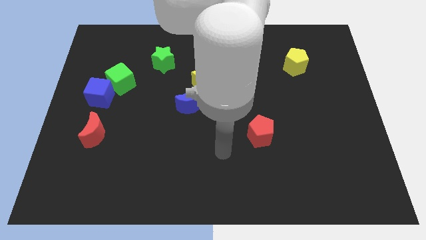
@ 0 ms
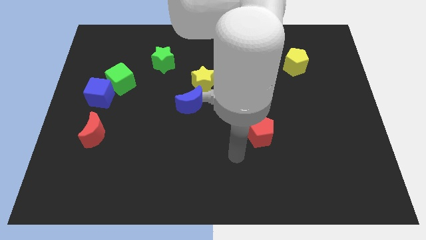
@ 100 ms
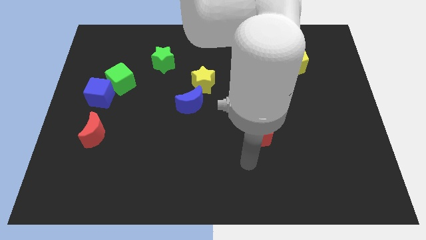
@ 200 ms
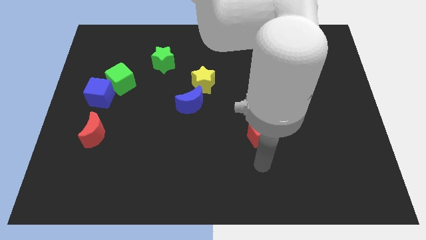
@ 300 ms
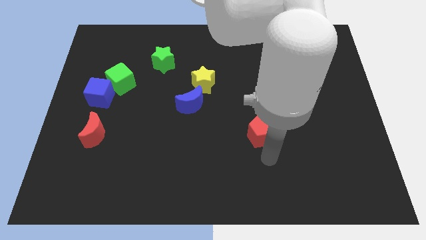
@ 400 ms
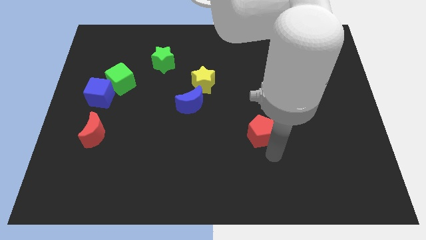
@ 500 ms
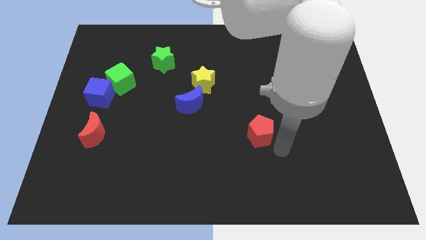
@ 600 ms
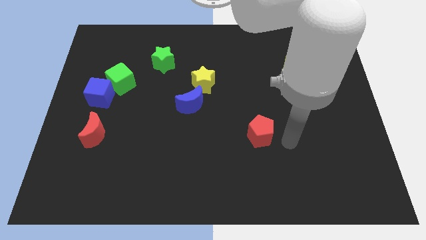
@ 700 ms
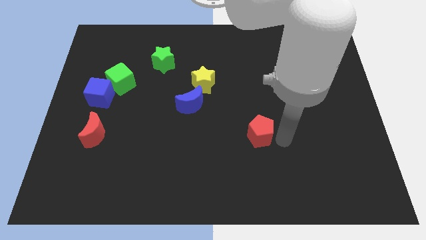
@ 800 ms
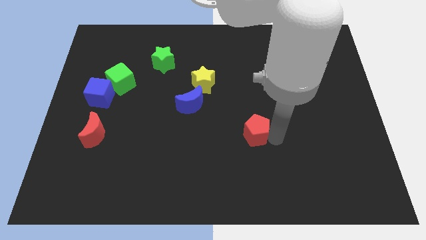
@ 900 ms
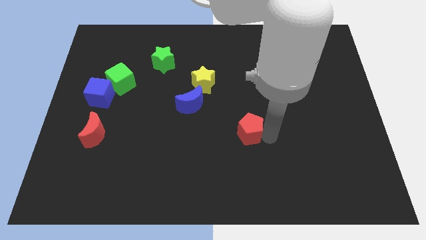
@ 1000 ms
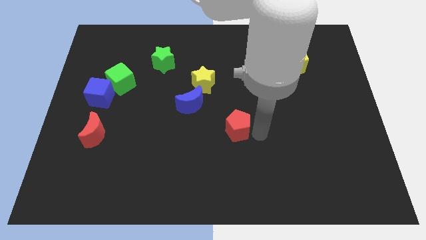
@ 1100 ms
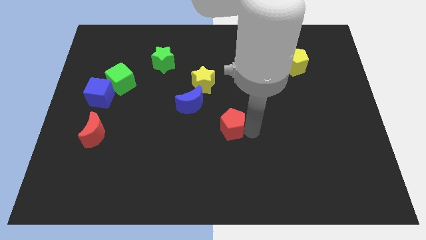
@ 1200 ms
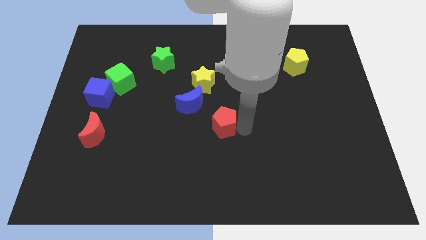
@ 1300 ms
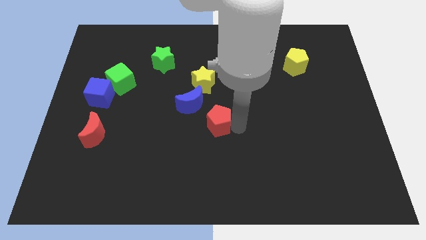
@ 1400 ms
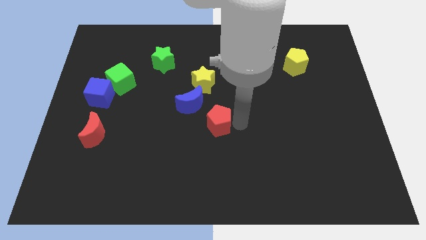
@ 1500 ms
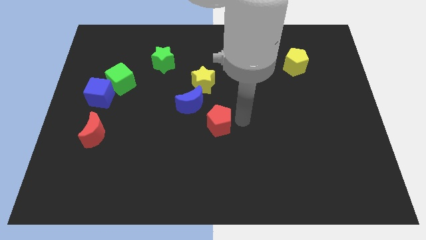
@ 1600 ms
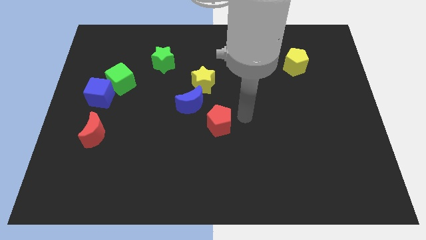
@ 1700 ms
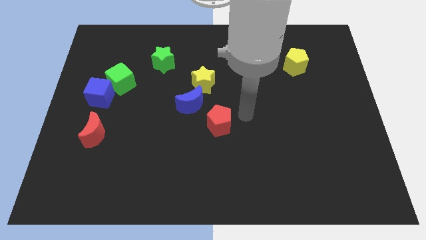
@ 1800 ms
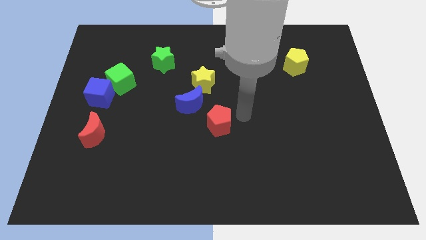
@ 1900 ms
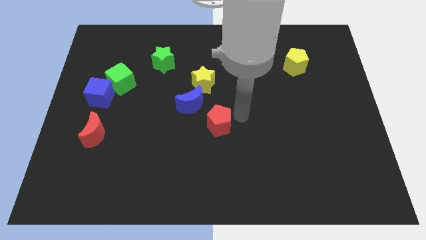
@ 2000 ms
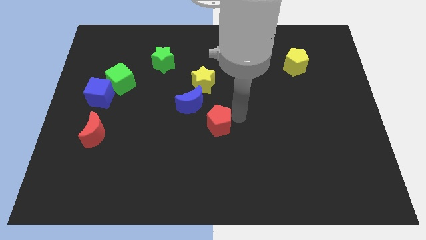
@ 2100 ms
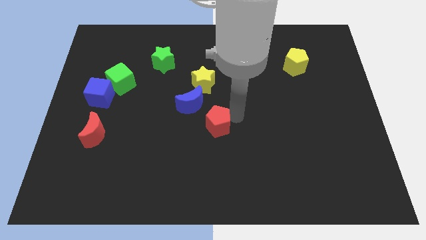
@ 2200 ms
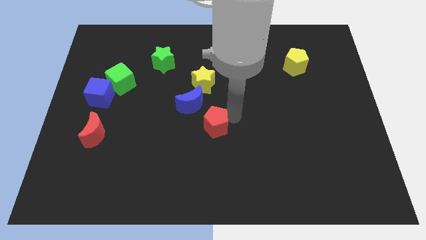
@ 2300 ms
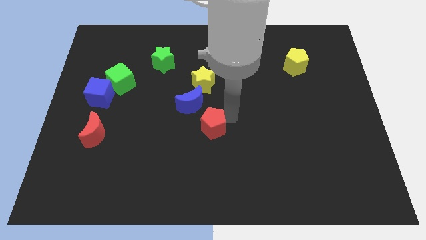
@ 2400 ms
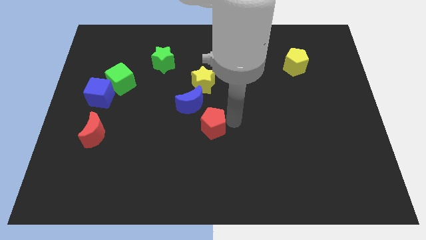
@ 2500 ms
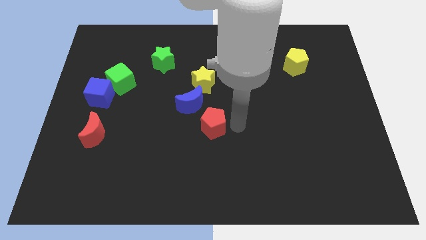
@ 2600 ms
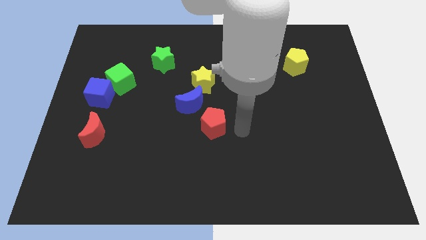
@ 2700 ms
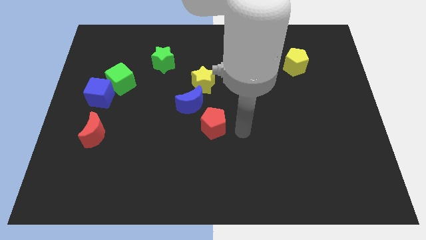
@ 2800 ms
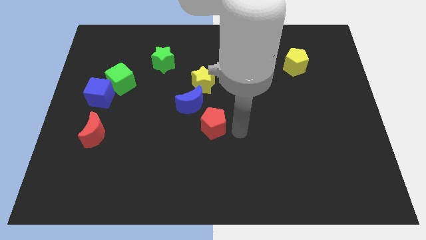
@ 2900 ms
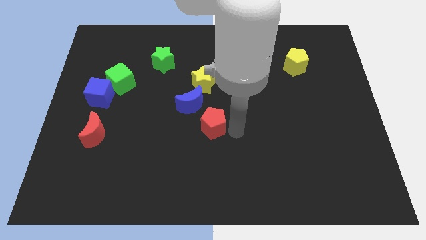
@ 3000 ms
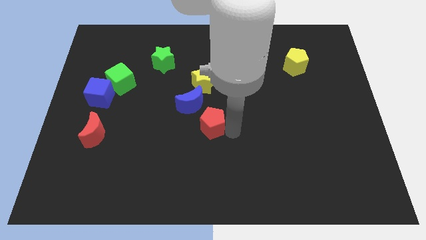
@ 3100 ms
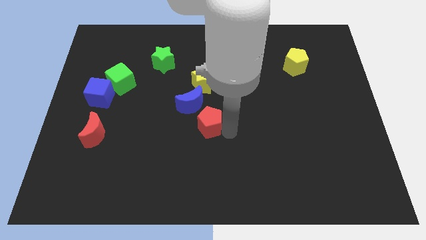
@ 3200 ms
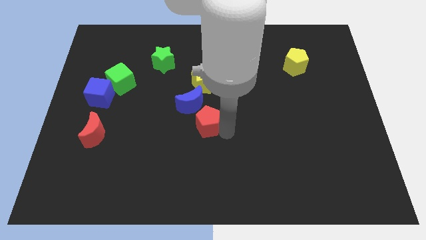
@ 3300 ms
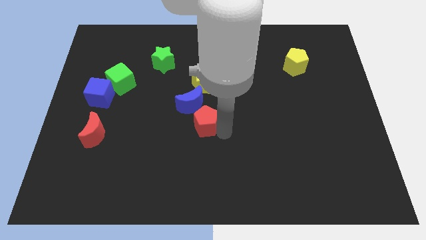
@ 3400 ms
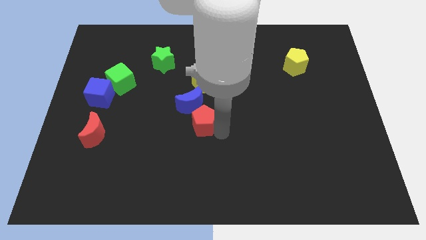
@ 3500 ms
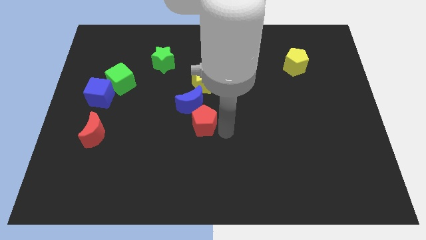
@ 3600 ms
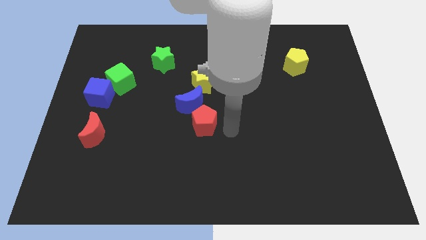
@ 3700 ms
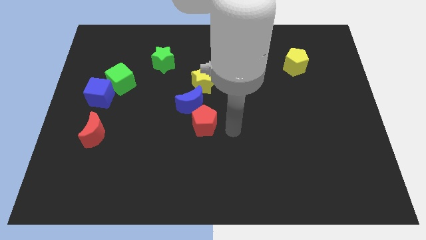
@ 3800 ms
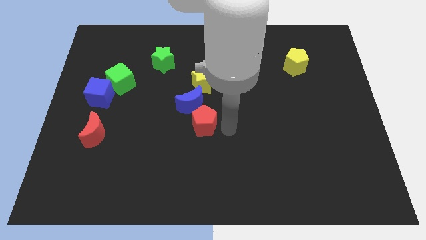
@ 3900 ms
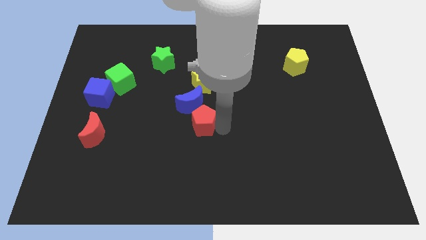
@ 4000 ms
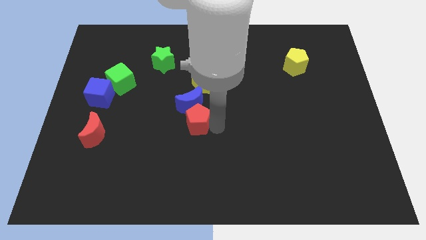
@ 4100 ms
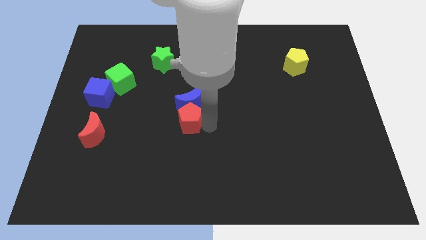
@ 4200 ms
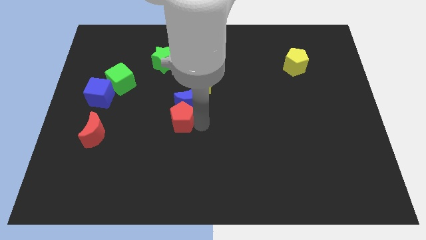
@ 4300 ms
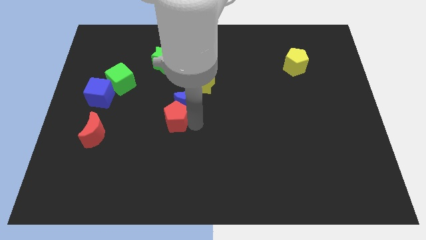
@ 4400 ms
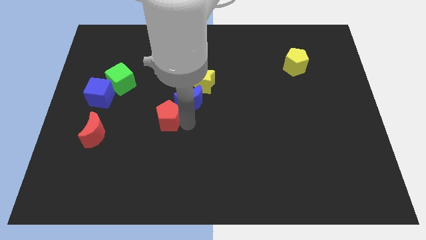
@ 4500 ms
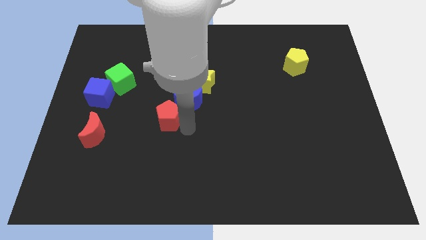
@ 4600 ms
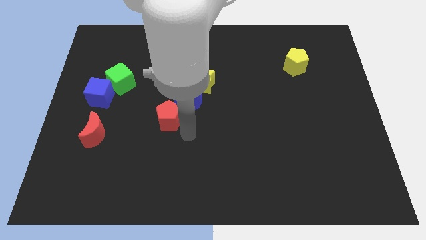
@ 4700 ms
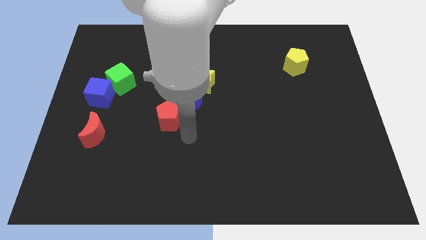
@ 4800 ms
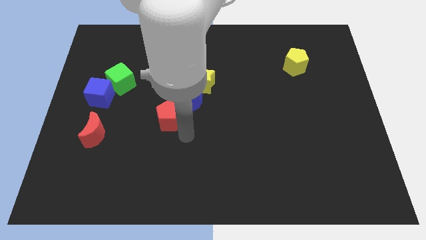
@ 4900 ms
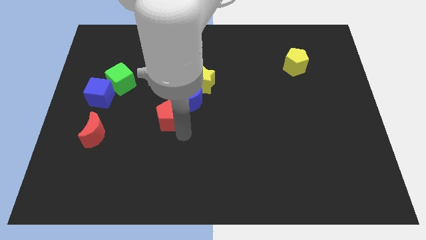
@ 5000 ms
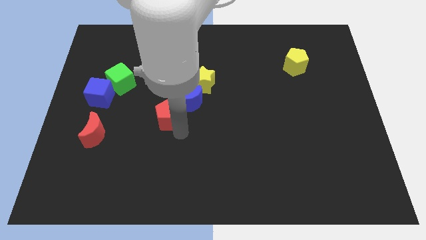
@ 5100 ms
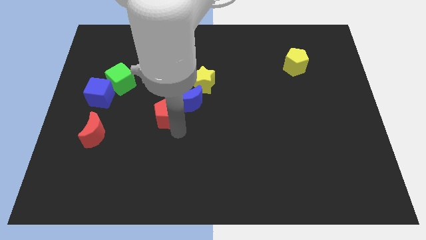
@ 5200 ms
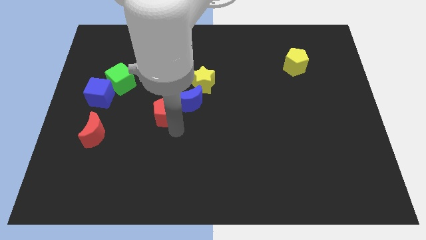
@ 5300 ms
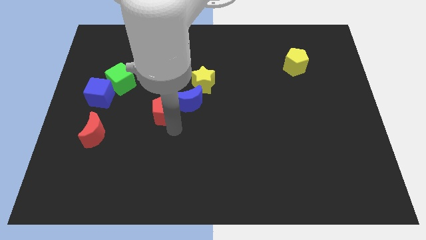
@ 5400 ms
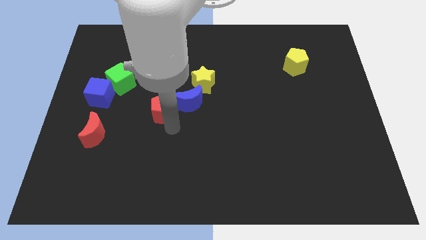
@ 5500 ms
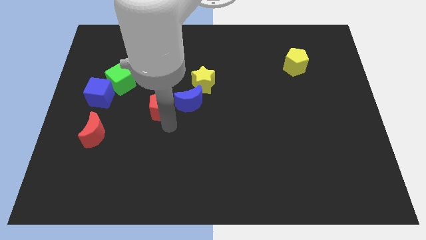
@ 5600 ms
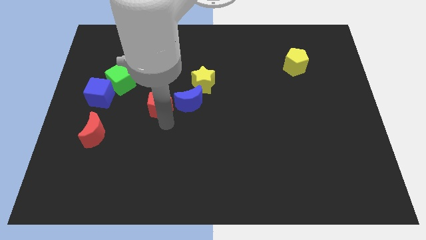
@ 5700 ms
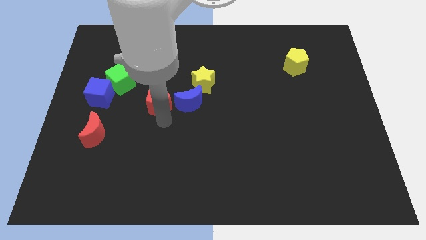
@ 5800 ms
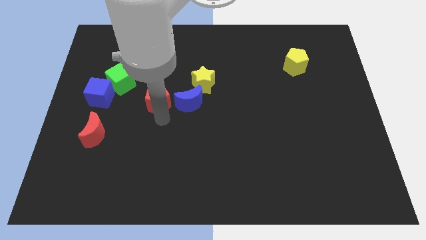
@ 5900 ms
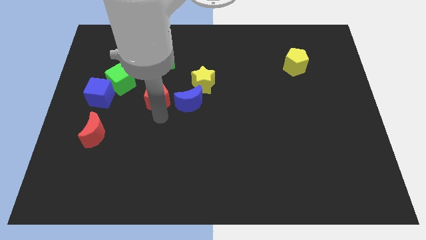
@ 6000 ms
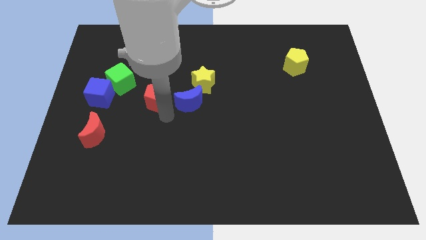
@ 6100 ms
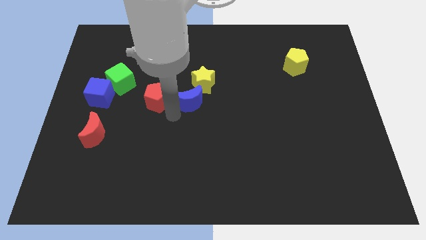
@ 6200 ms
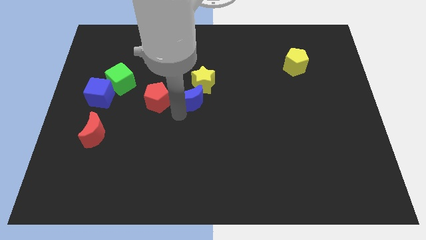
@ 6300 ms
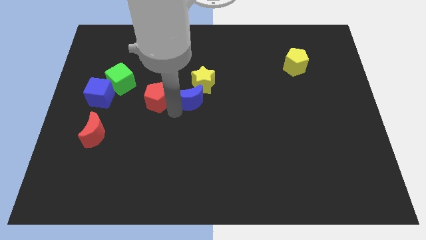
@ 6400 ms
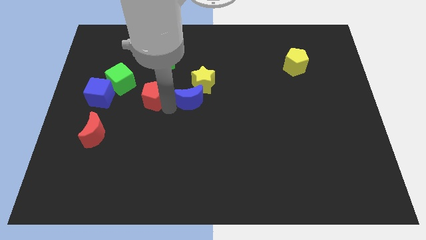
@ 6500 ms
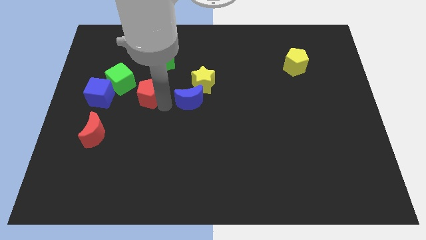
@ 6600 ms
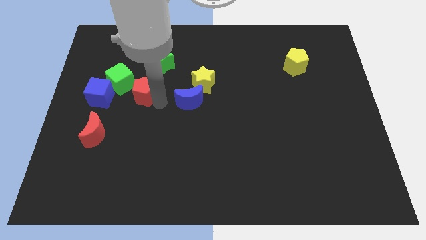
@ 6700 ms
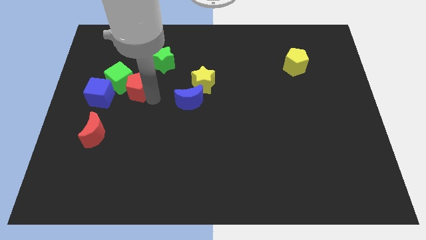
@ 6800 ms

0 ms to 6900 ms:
push the red pentagon close to the green cube
